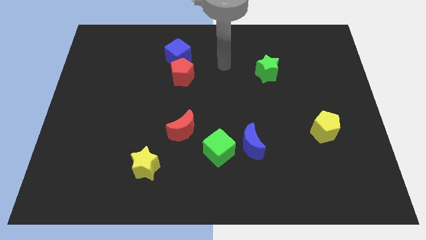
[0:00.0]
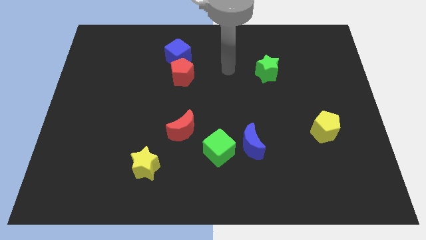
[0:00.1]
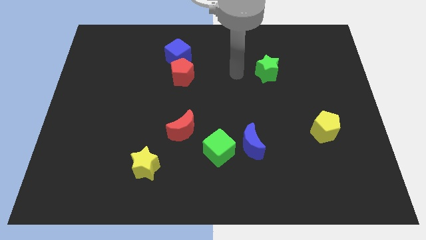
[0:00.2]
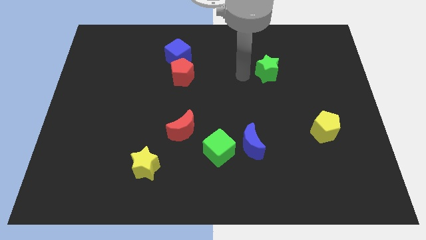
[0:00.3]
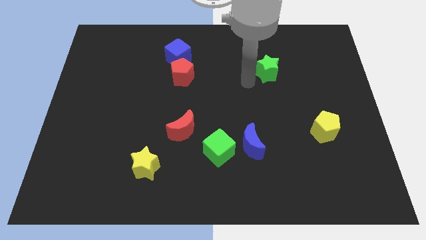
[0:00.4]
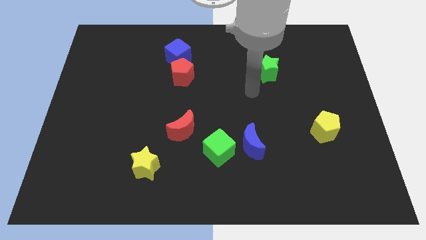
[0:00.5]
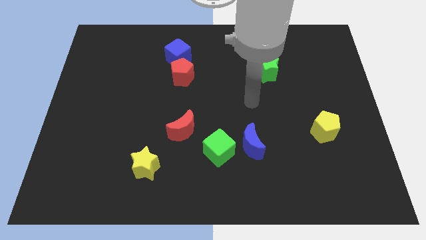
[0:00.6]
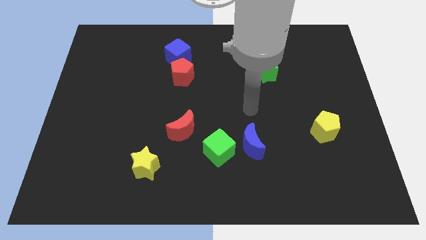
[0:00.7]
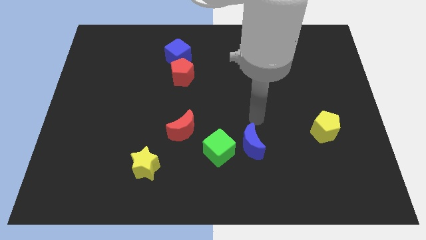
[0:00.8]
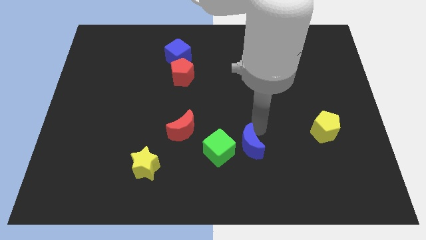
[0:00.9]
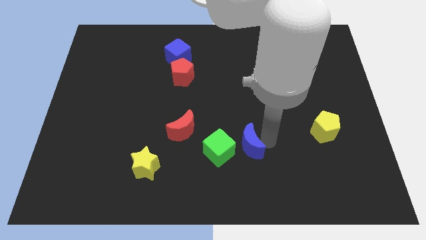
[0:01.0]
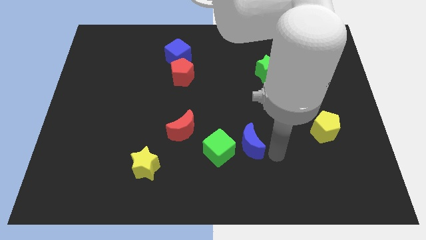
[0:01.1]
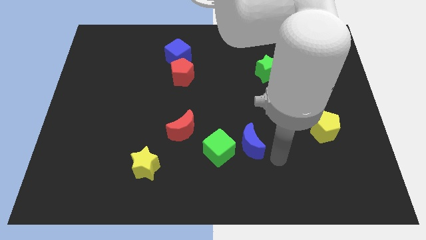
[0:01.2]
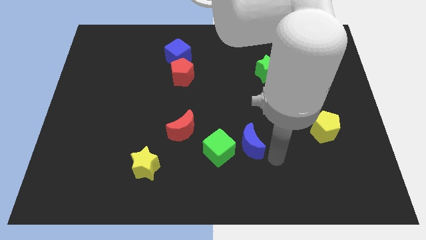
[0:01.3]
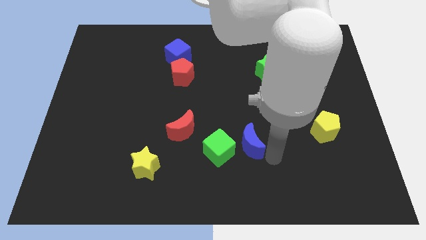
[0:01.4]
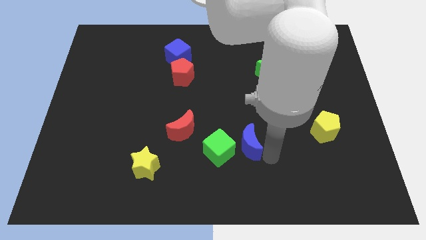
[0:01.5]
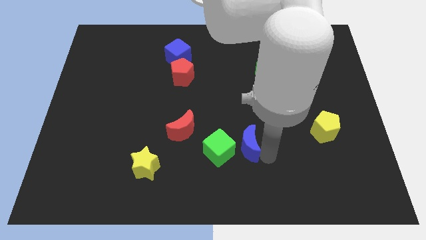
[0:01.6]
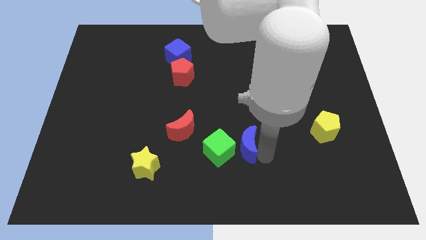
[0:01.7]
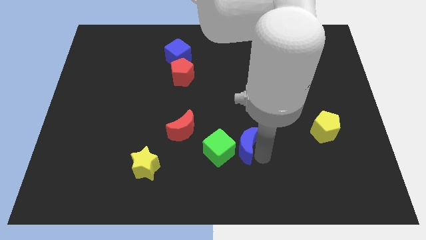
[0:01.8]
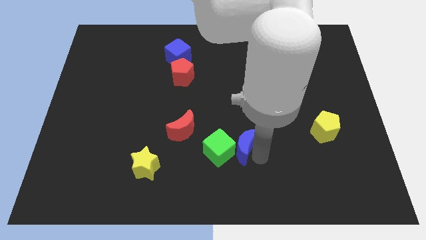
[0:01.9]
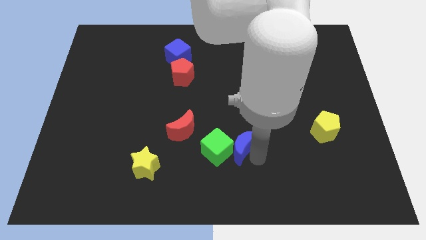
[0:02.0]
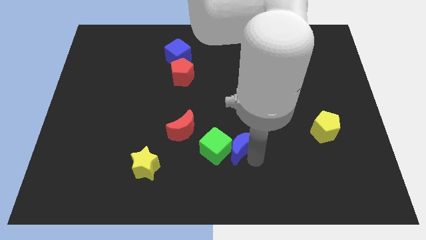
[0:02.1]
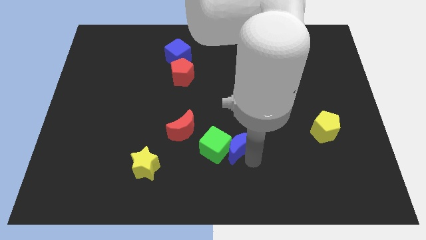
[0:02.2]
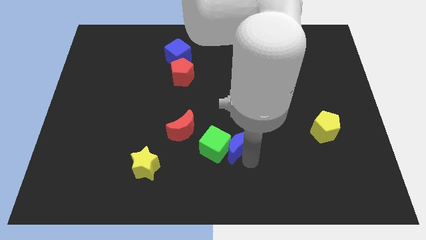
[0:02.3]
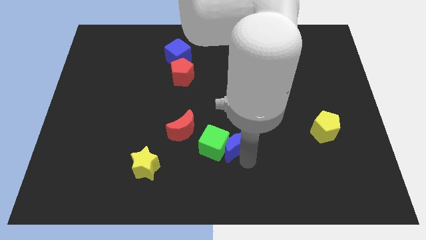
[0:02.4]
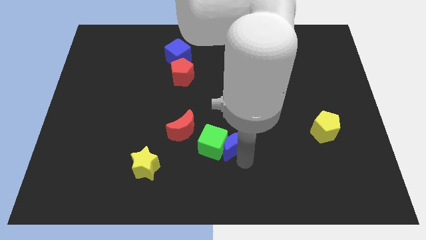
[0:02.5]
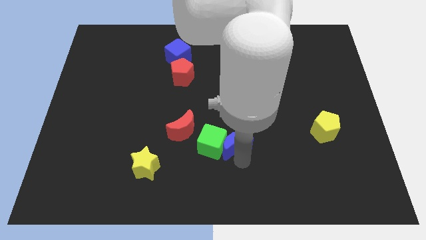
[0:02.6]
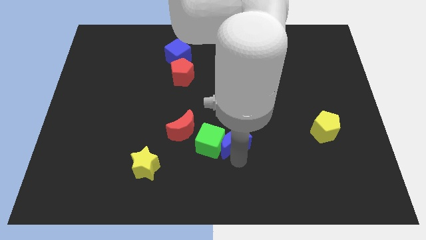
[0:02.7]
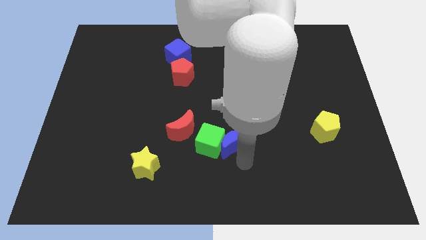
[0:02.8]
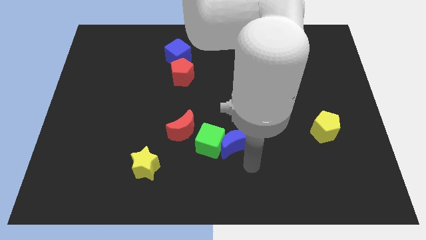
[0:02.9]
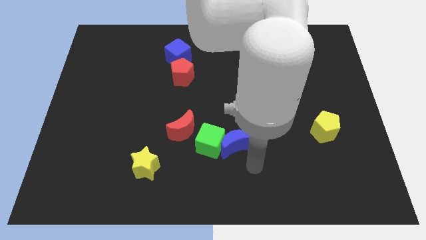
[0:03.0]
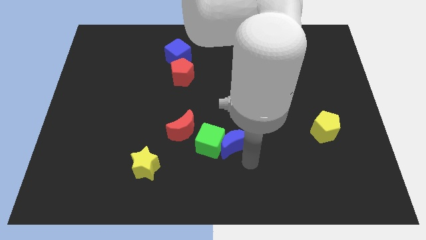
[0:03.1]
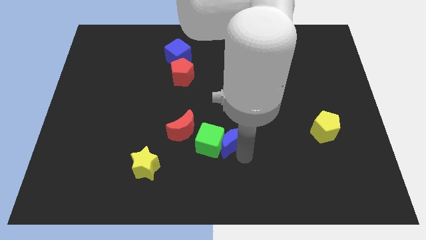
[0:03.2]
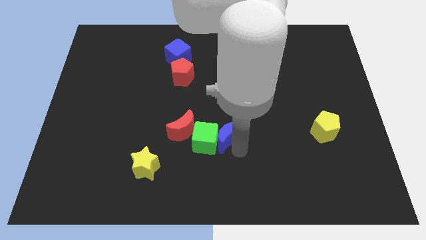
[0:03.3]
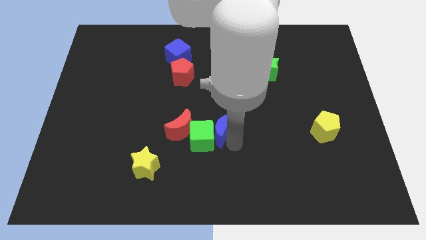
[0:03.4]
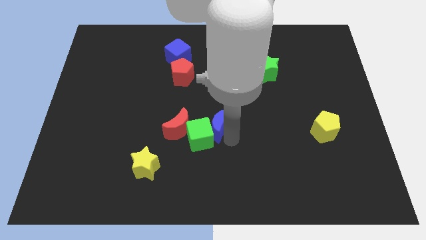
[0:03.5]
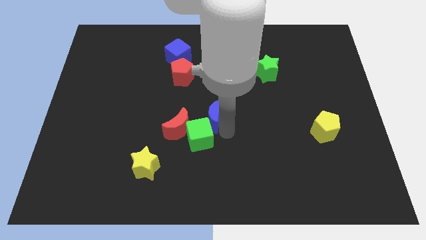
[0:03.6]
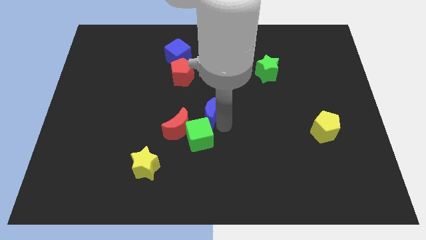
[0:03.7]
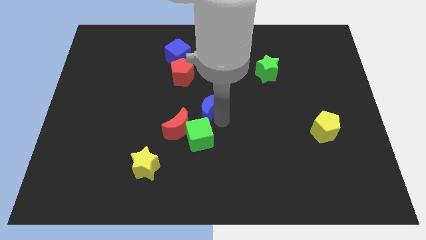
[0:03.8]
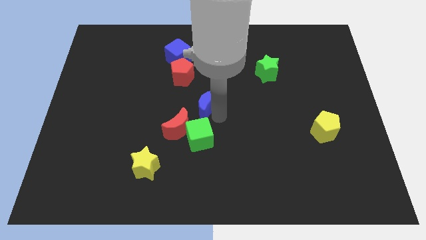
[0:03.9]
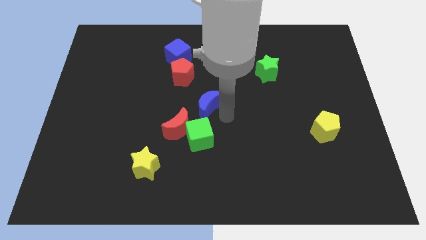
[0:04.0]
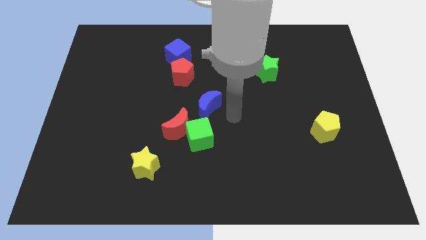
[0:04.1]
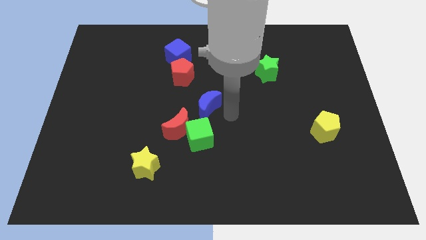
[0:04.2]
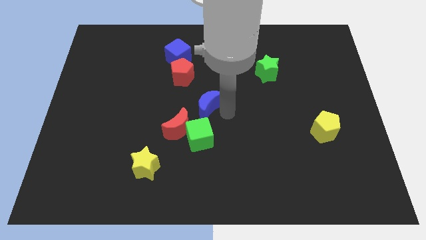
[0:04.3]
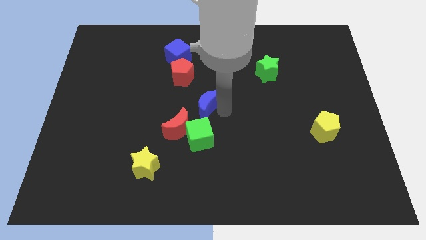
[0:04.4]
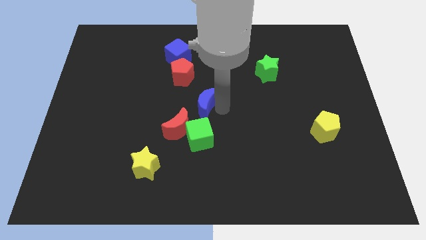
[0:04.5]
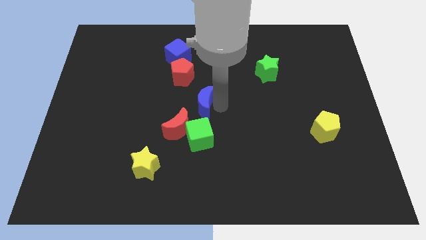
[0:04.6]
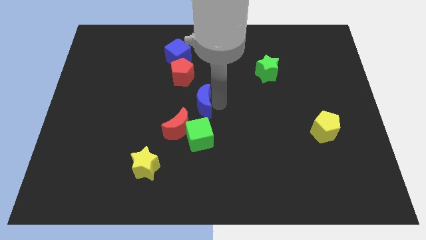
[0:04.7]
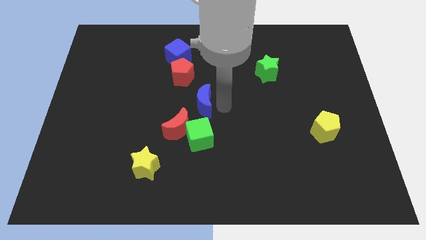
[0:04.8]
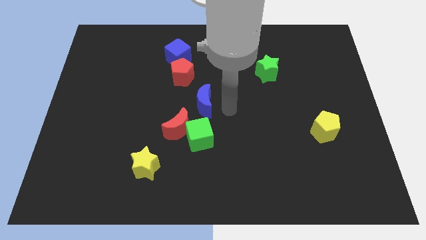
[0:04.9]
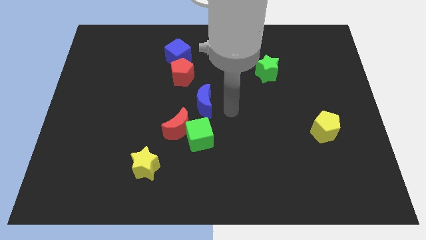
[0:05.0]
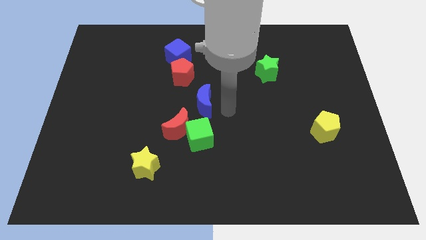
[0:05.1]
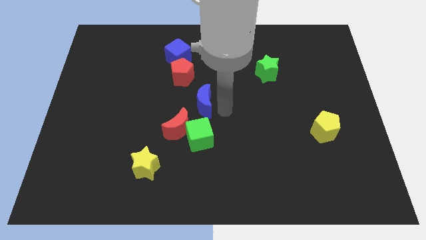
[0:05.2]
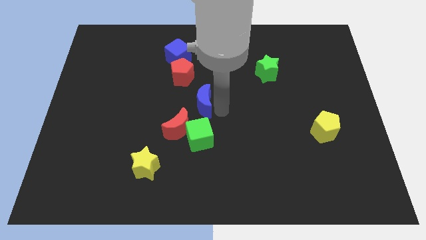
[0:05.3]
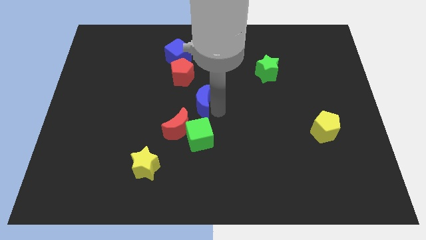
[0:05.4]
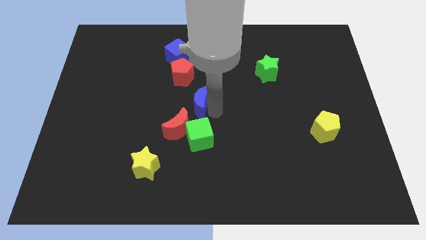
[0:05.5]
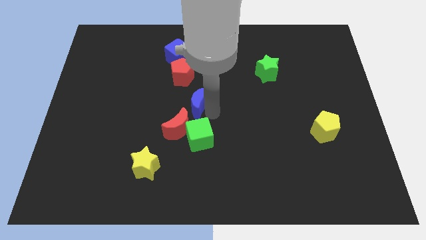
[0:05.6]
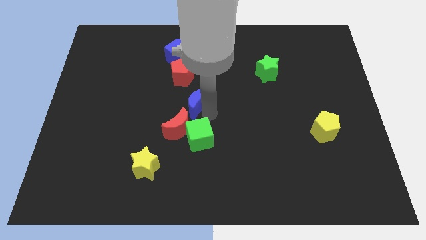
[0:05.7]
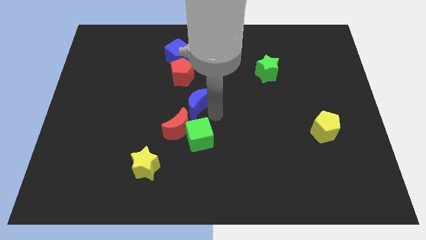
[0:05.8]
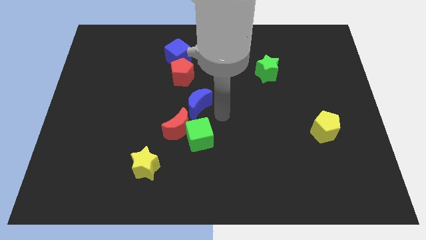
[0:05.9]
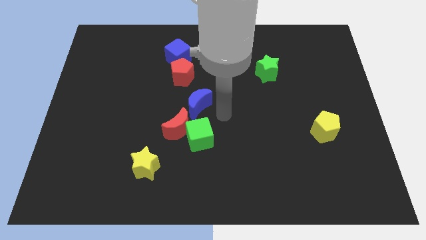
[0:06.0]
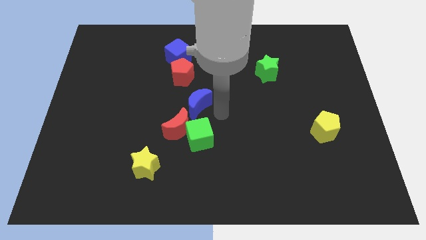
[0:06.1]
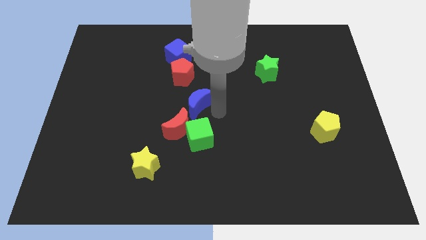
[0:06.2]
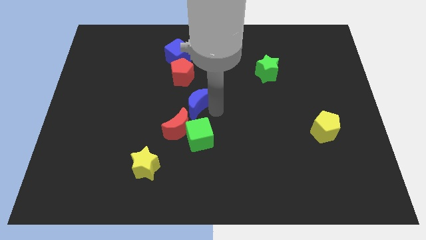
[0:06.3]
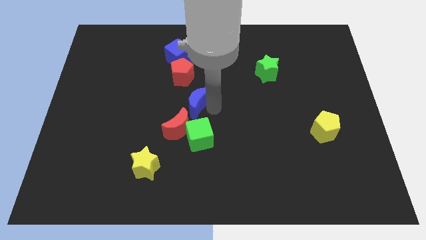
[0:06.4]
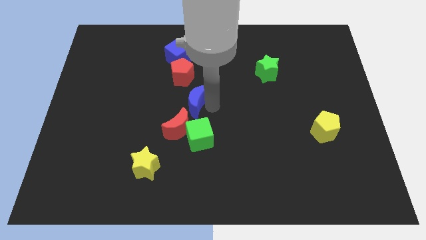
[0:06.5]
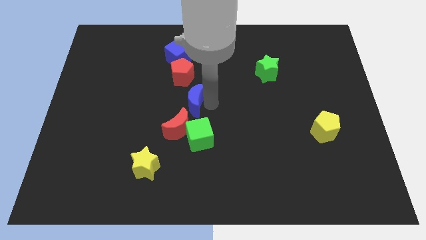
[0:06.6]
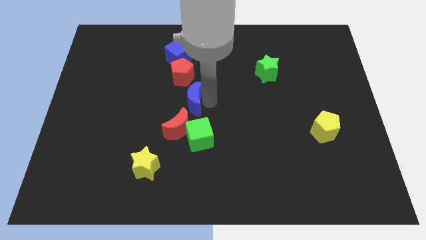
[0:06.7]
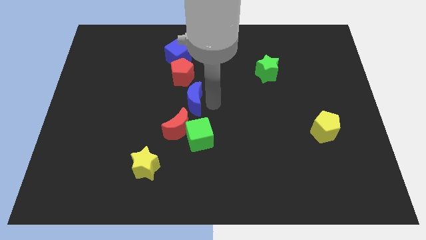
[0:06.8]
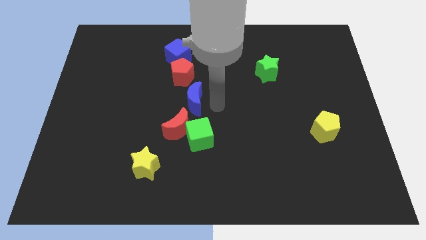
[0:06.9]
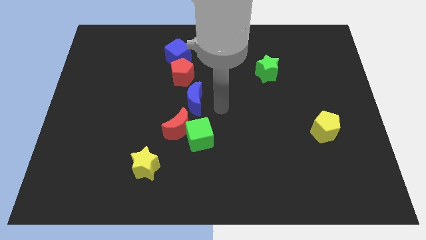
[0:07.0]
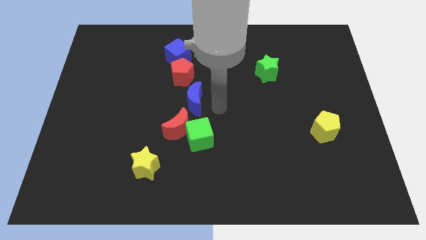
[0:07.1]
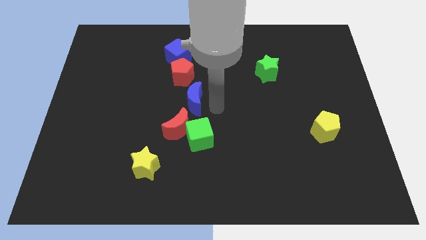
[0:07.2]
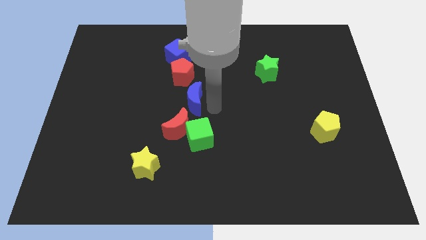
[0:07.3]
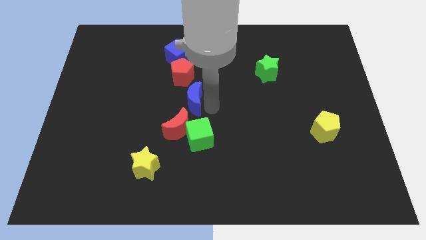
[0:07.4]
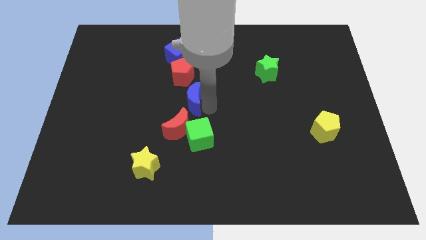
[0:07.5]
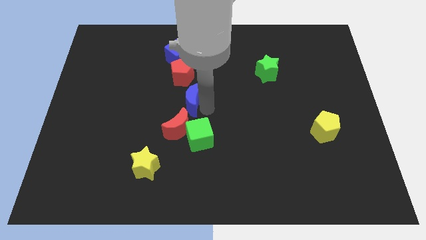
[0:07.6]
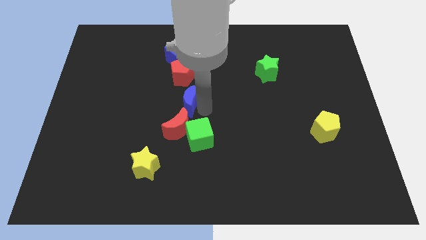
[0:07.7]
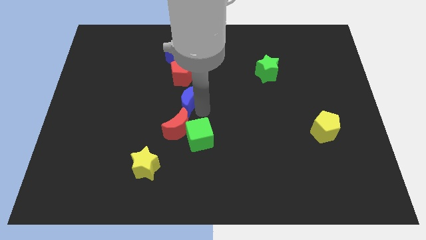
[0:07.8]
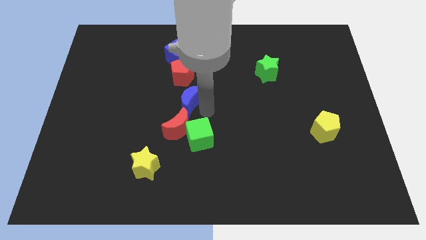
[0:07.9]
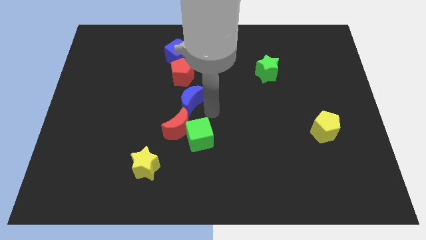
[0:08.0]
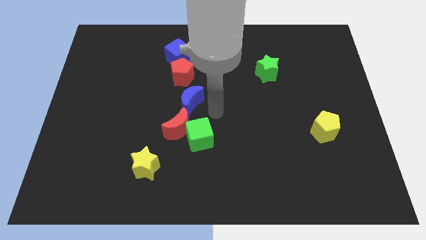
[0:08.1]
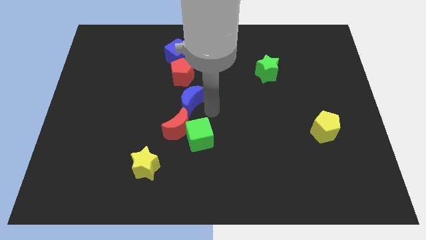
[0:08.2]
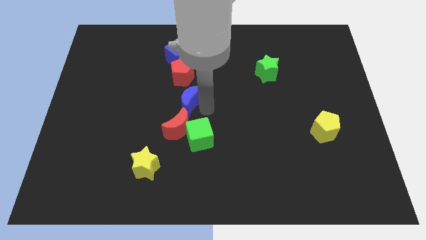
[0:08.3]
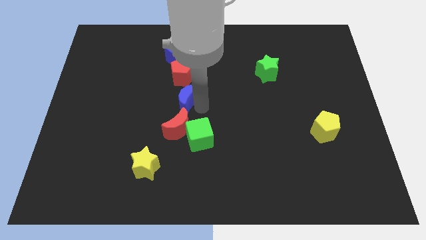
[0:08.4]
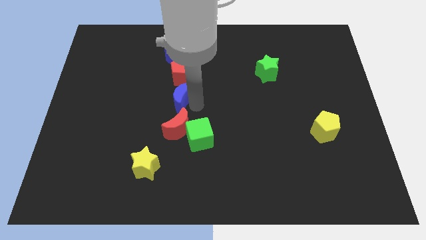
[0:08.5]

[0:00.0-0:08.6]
slide the blue moon up and to the left
